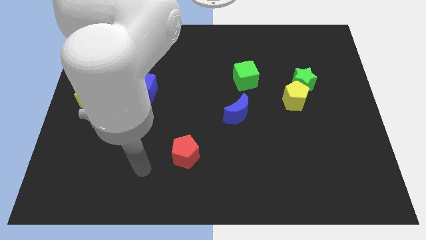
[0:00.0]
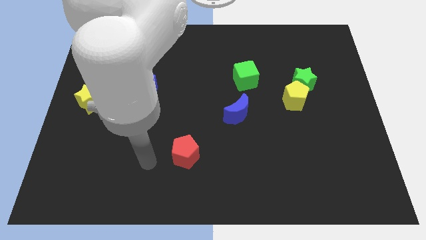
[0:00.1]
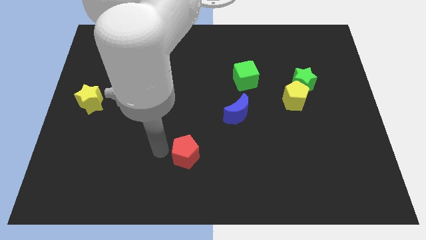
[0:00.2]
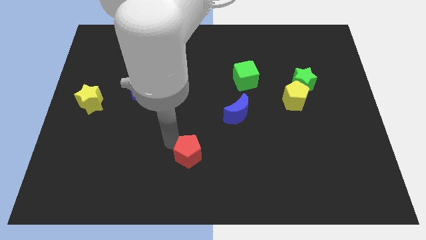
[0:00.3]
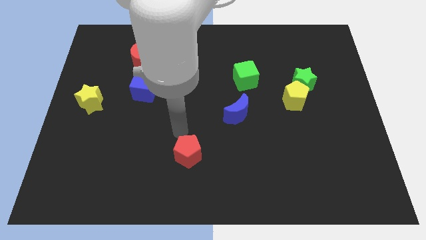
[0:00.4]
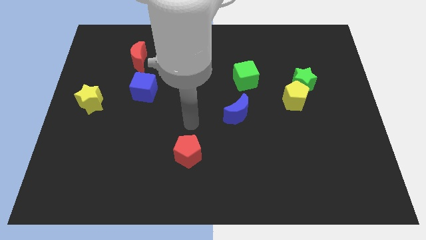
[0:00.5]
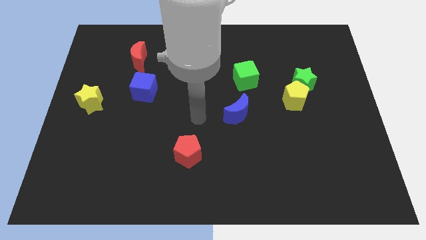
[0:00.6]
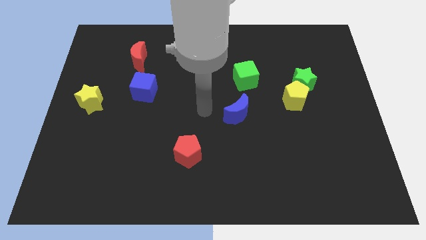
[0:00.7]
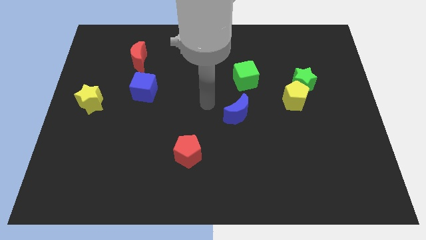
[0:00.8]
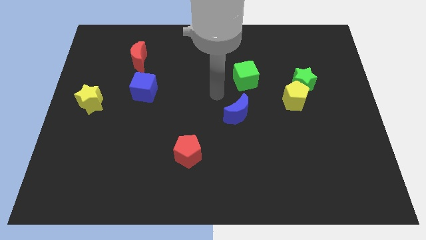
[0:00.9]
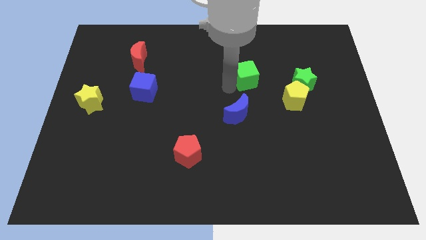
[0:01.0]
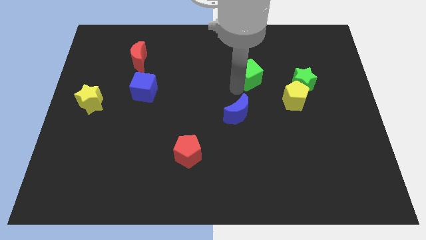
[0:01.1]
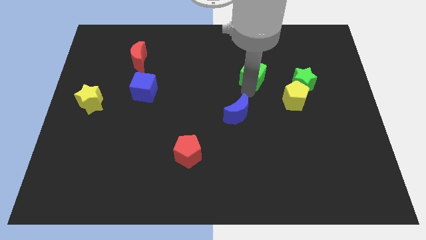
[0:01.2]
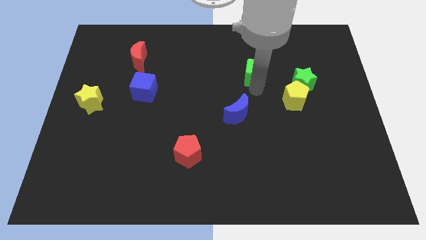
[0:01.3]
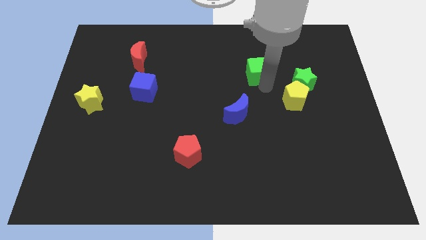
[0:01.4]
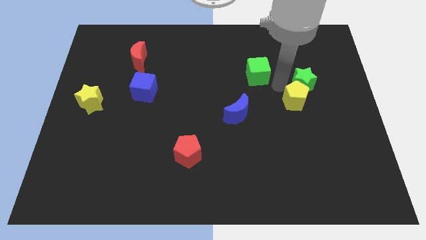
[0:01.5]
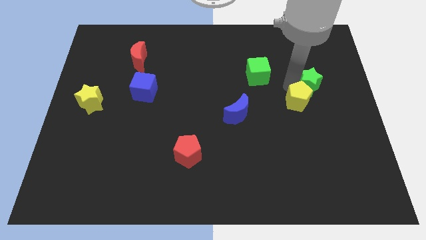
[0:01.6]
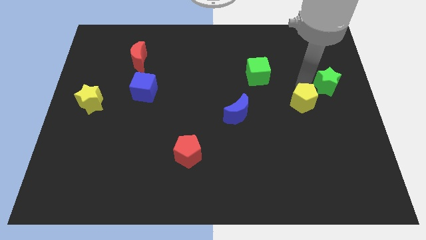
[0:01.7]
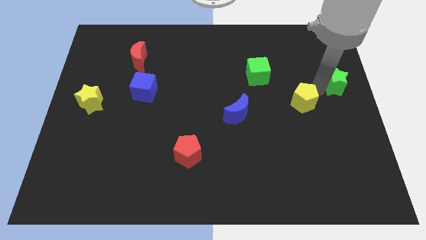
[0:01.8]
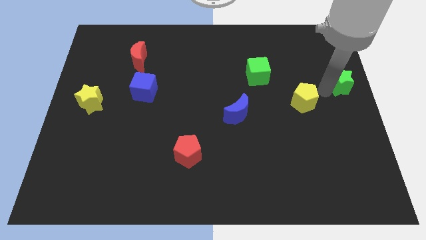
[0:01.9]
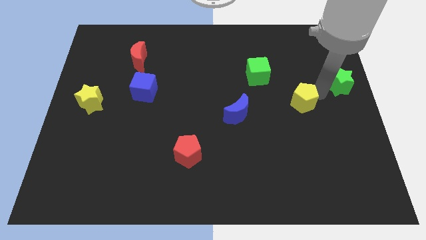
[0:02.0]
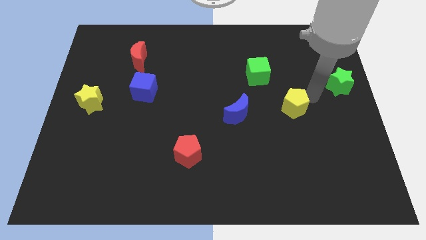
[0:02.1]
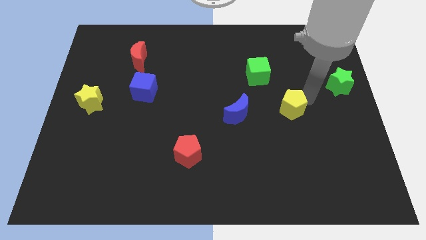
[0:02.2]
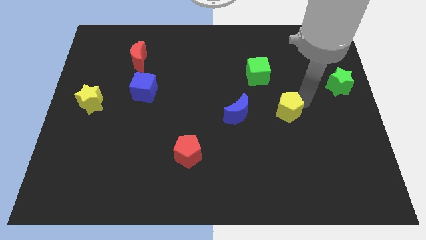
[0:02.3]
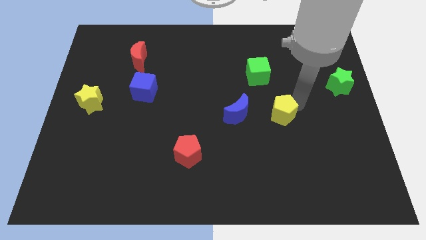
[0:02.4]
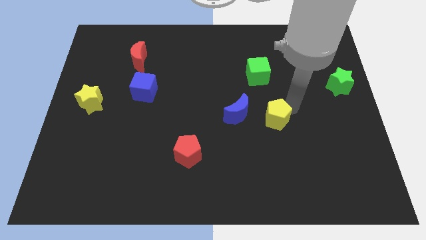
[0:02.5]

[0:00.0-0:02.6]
slide the yellow pentagon down and left diagonally a bit

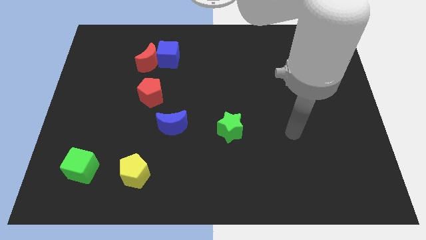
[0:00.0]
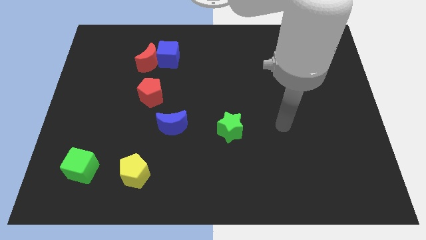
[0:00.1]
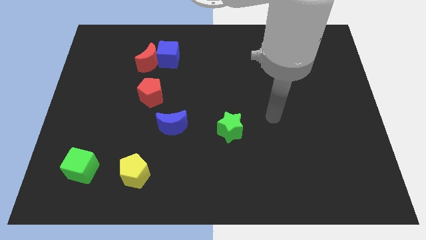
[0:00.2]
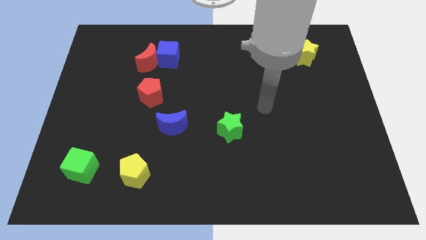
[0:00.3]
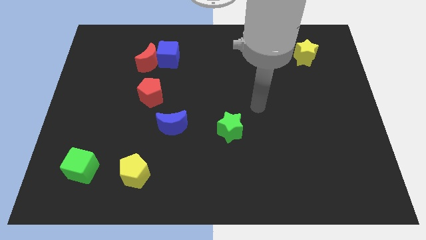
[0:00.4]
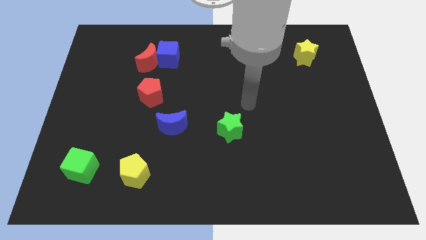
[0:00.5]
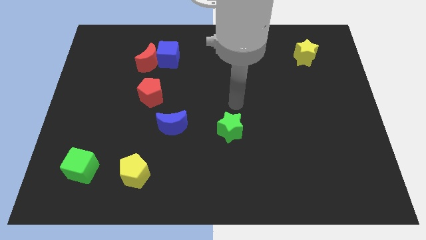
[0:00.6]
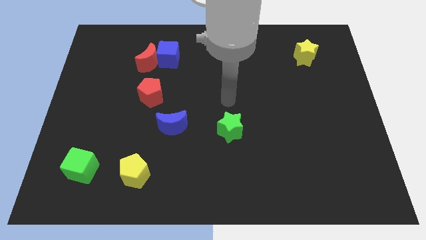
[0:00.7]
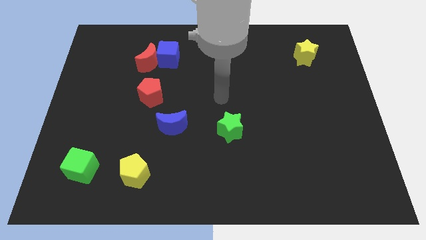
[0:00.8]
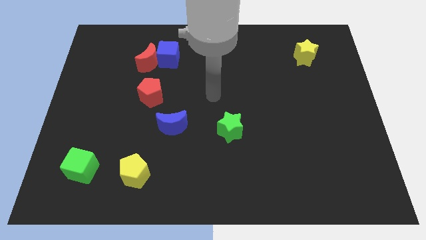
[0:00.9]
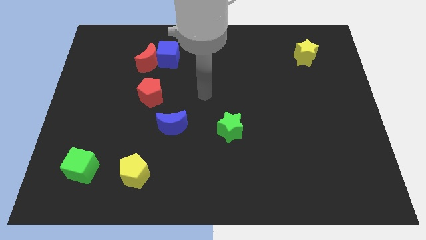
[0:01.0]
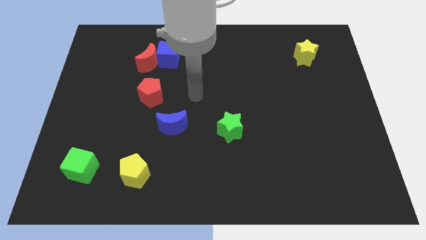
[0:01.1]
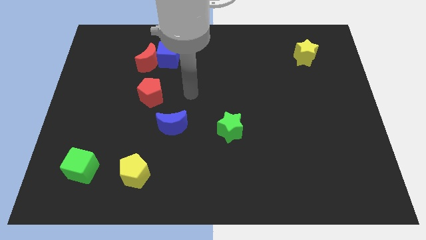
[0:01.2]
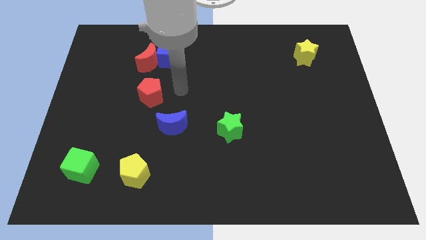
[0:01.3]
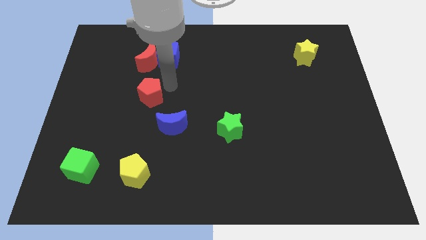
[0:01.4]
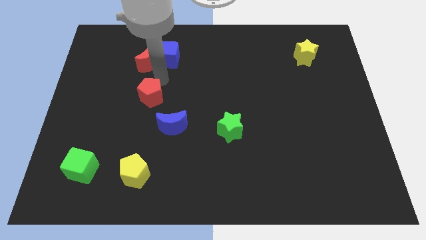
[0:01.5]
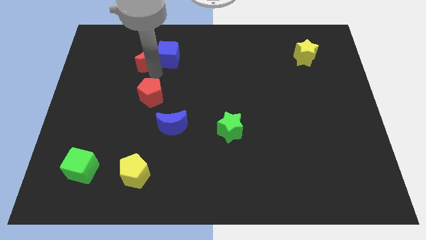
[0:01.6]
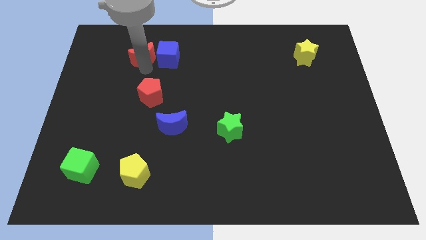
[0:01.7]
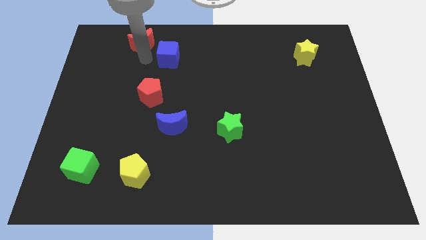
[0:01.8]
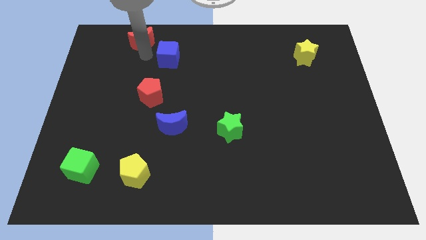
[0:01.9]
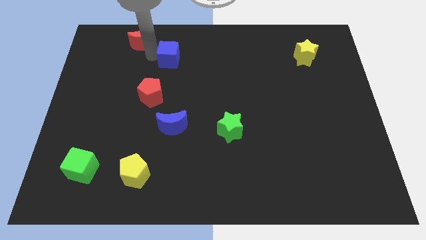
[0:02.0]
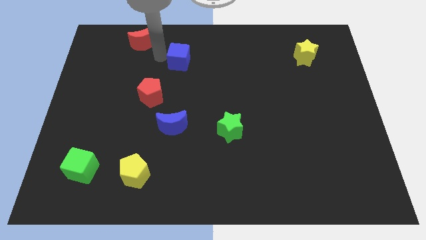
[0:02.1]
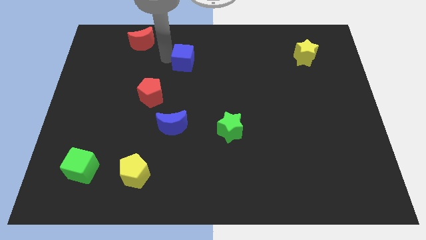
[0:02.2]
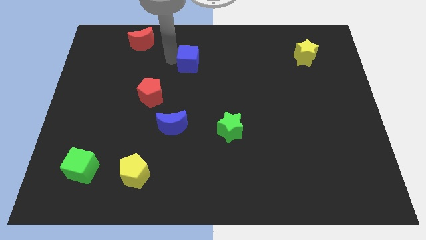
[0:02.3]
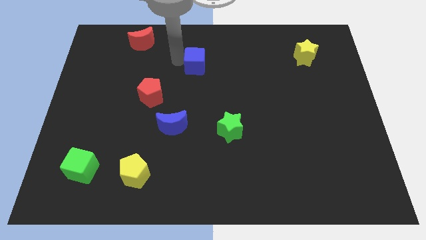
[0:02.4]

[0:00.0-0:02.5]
slightly slide the blue cube right

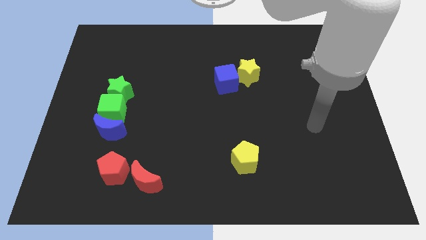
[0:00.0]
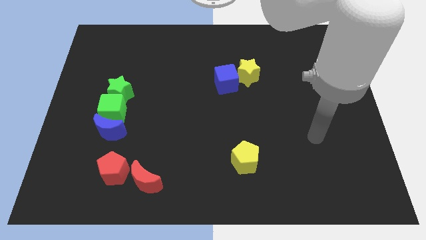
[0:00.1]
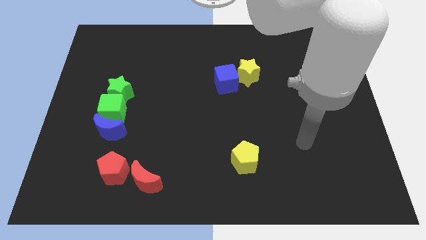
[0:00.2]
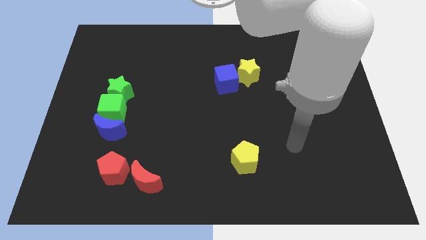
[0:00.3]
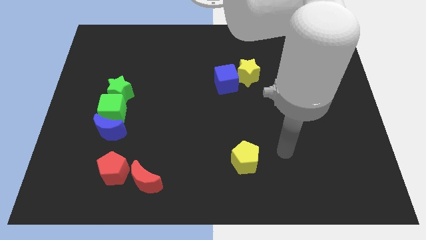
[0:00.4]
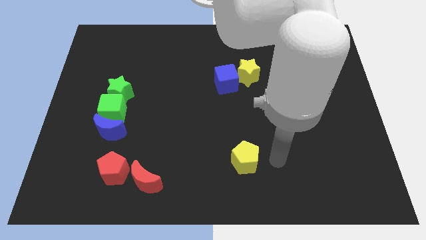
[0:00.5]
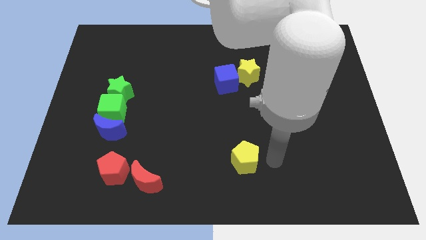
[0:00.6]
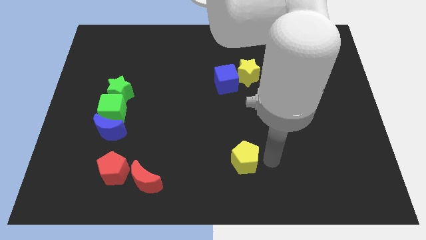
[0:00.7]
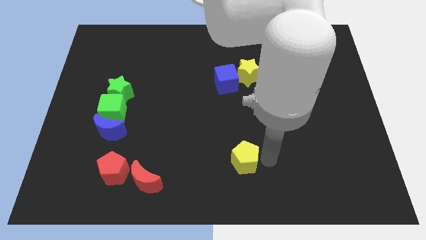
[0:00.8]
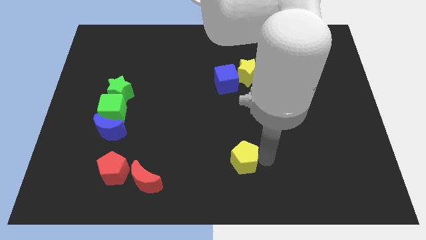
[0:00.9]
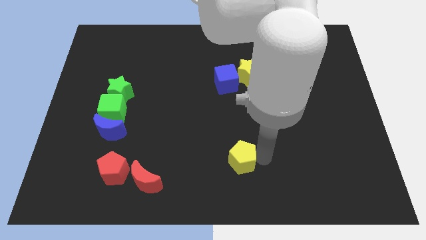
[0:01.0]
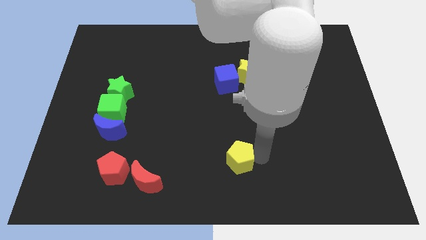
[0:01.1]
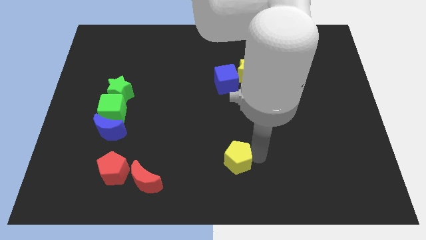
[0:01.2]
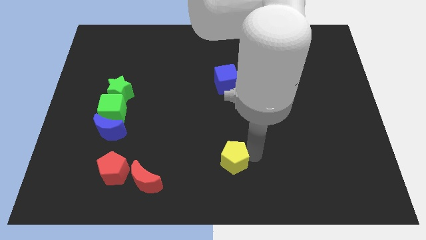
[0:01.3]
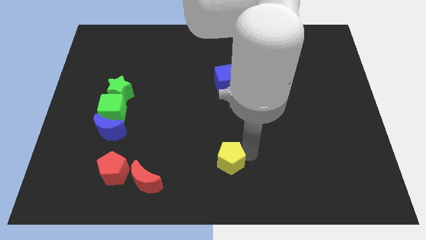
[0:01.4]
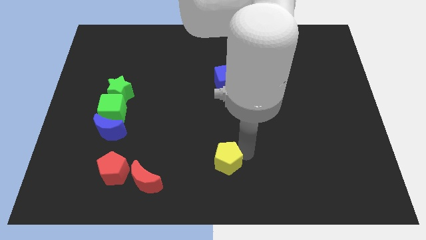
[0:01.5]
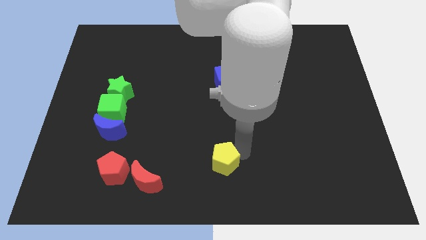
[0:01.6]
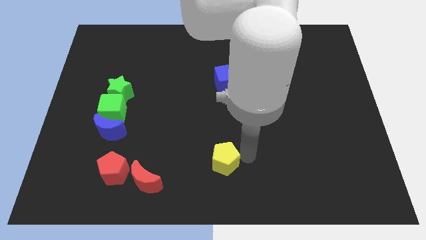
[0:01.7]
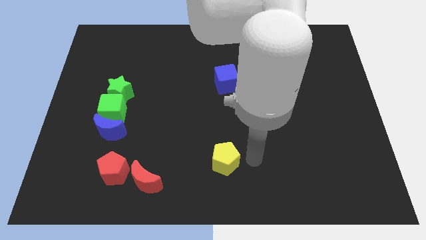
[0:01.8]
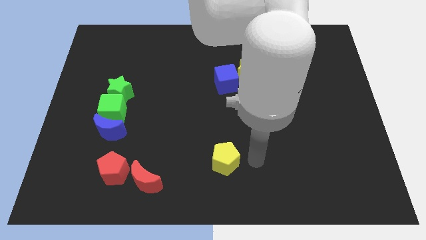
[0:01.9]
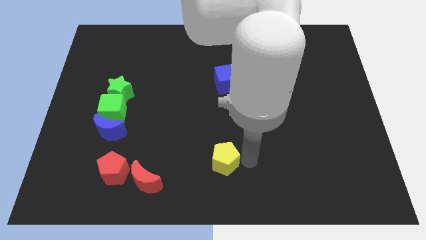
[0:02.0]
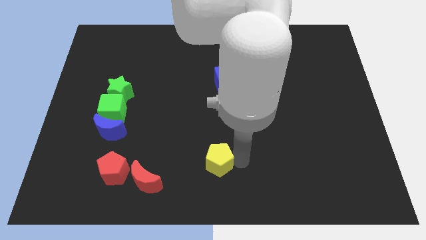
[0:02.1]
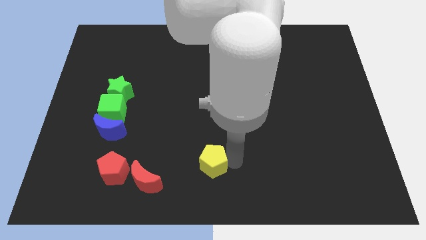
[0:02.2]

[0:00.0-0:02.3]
move the yellow pentagon somewhat left

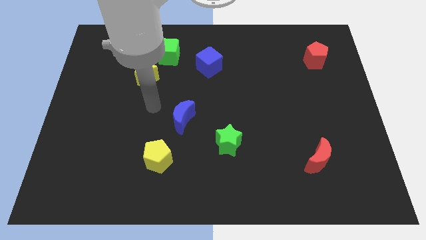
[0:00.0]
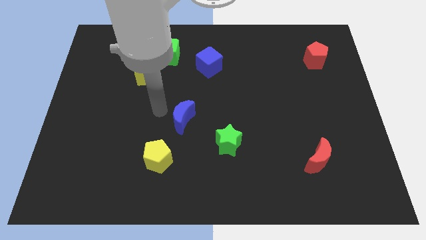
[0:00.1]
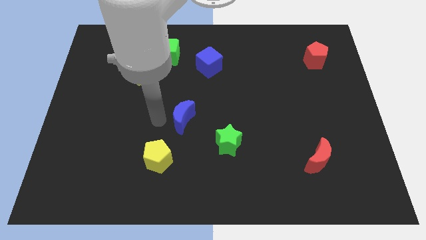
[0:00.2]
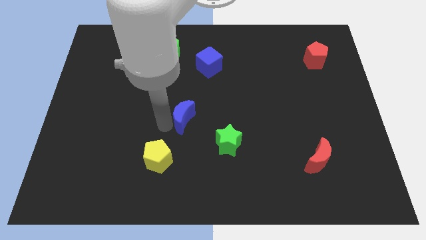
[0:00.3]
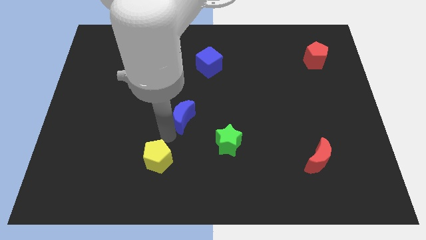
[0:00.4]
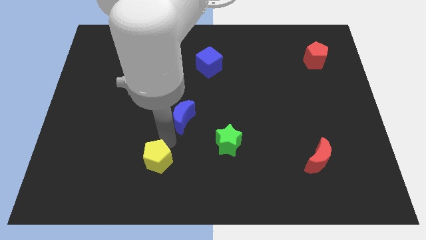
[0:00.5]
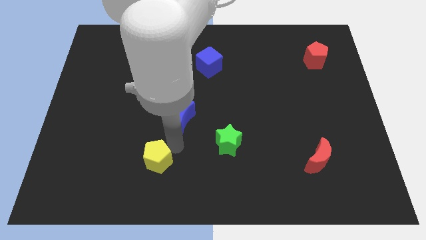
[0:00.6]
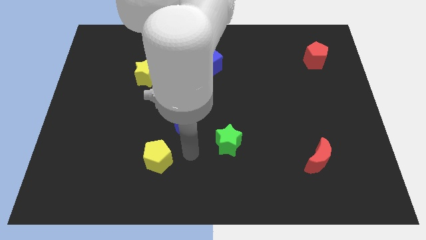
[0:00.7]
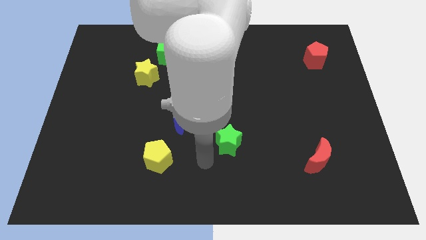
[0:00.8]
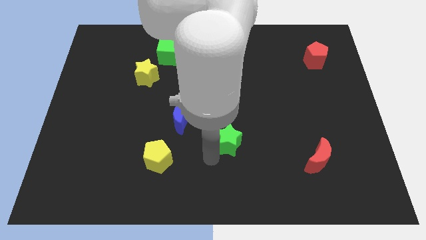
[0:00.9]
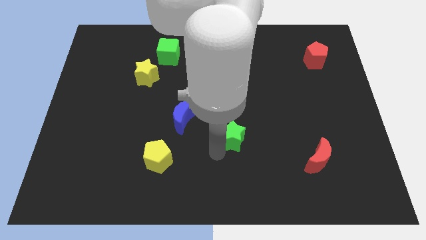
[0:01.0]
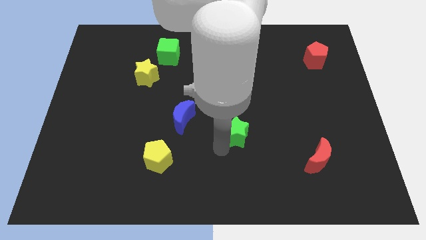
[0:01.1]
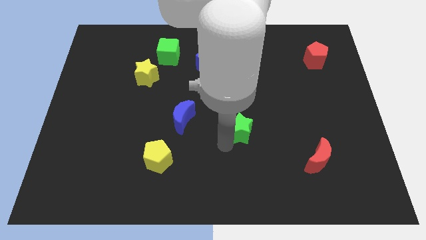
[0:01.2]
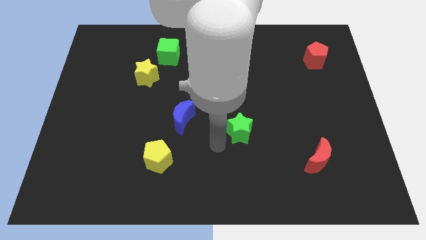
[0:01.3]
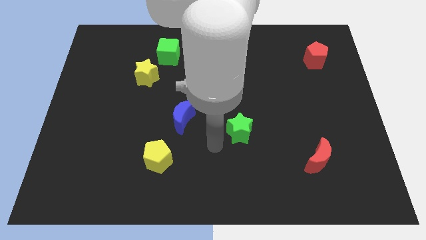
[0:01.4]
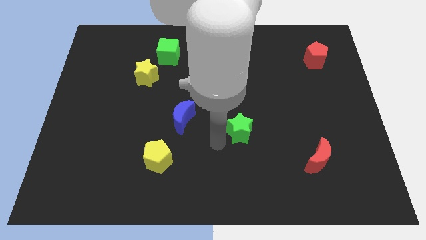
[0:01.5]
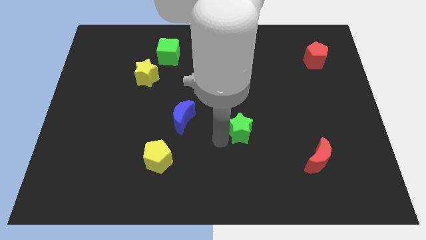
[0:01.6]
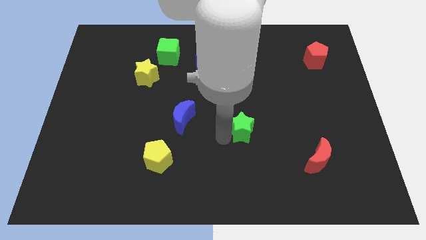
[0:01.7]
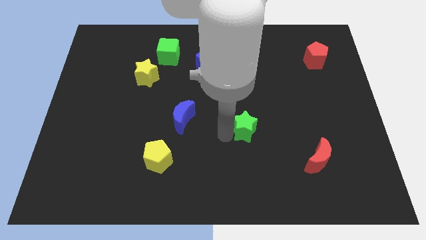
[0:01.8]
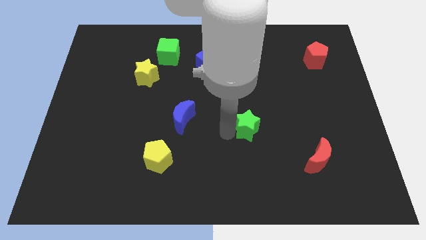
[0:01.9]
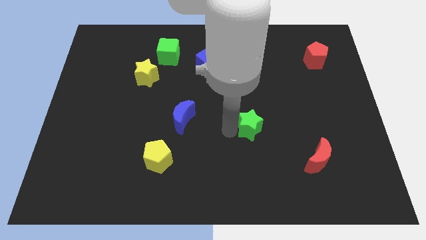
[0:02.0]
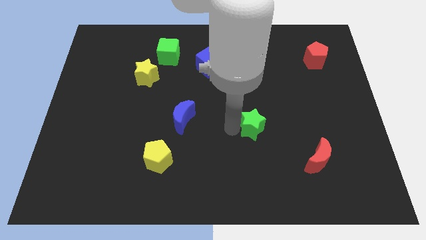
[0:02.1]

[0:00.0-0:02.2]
push the green star up and then to the right a bit
